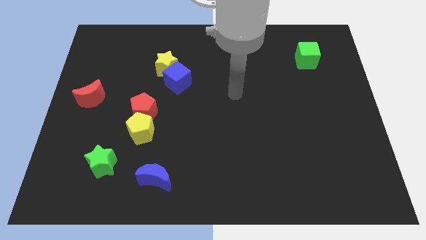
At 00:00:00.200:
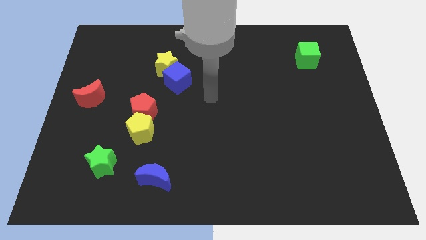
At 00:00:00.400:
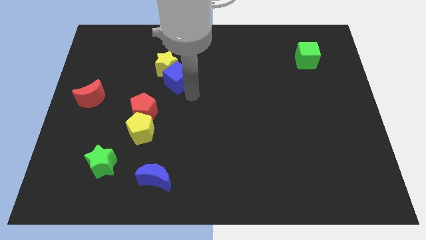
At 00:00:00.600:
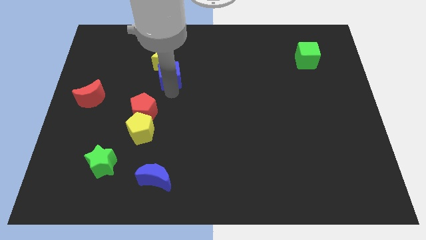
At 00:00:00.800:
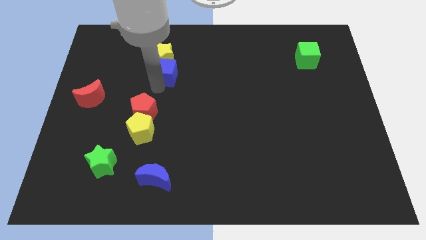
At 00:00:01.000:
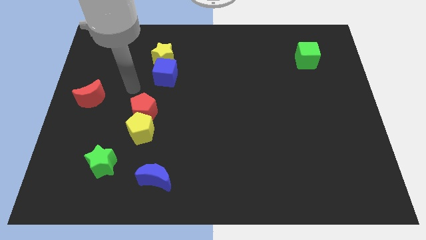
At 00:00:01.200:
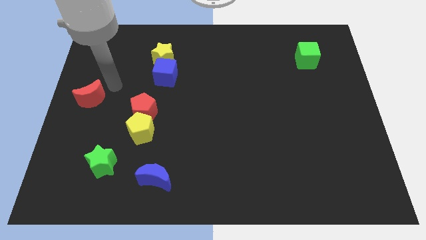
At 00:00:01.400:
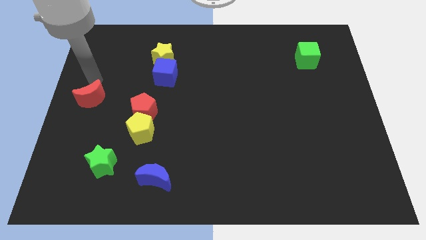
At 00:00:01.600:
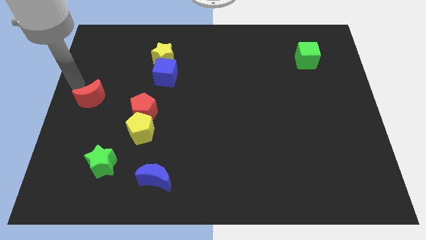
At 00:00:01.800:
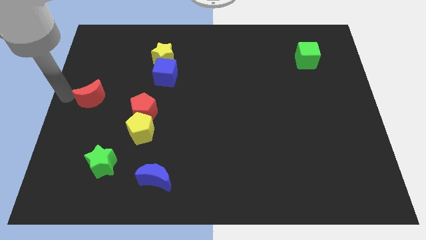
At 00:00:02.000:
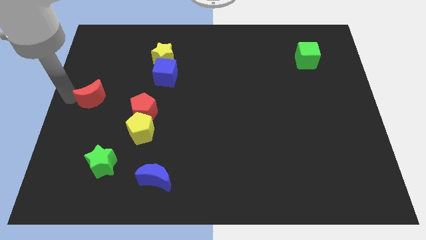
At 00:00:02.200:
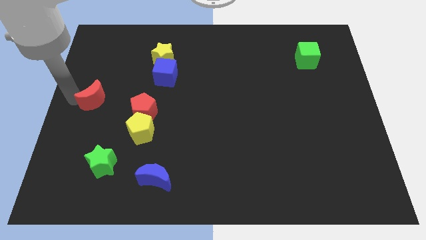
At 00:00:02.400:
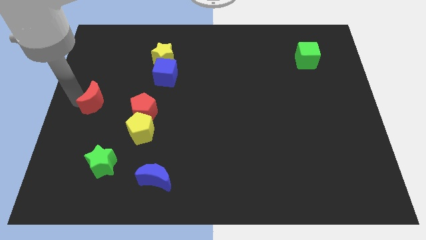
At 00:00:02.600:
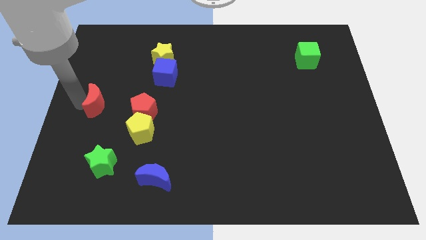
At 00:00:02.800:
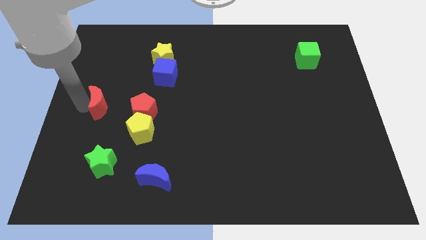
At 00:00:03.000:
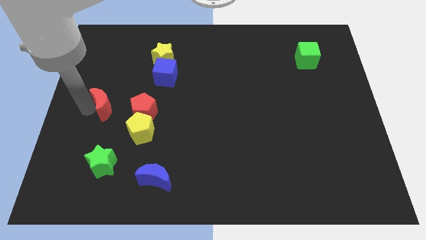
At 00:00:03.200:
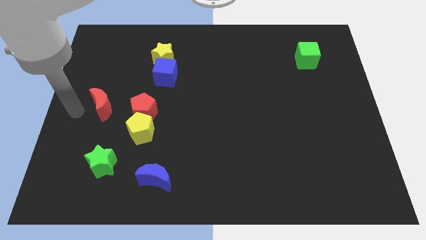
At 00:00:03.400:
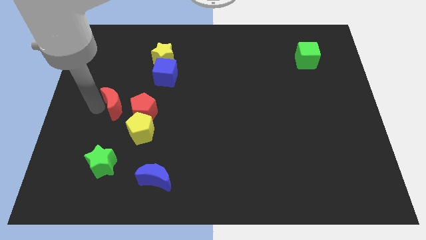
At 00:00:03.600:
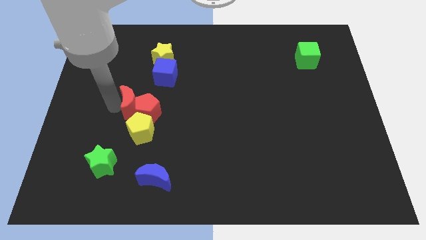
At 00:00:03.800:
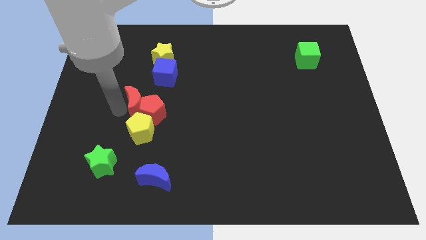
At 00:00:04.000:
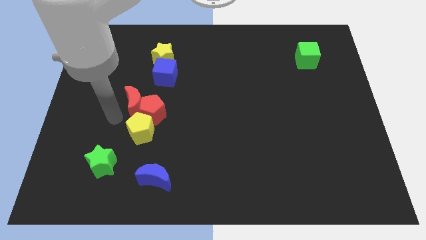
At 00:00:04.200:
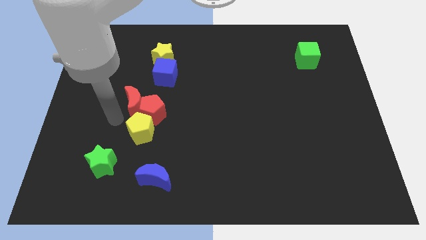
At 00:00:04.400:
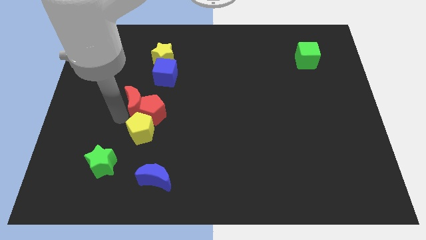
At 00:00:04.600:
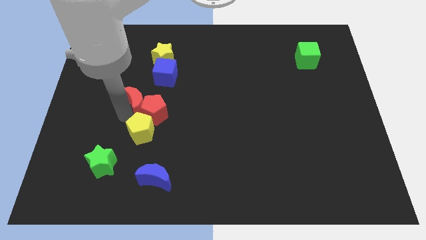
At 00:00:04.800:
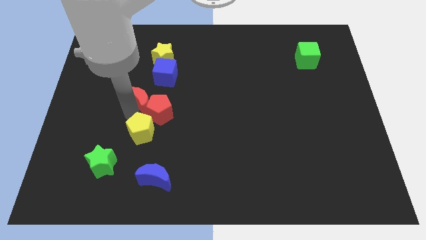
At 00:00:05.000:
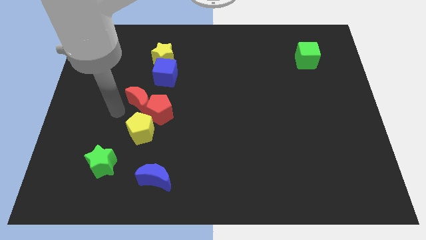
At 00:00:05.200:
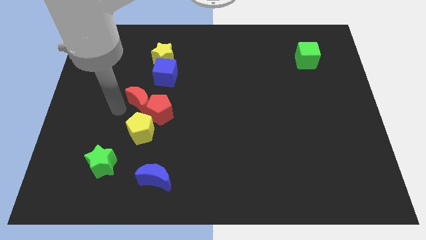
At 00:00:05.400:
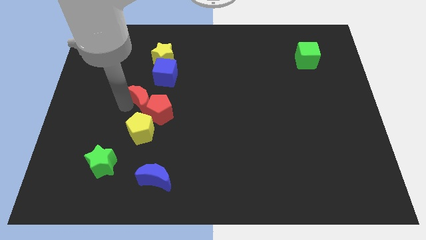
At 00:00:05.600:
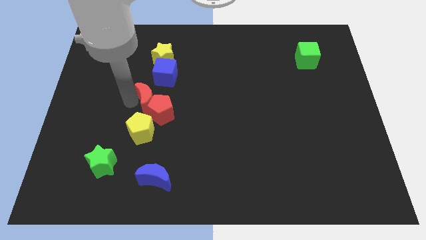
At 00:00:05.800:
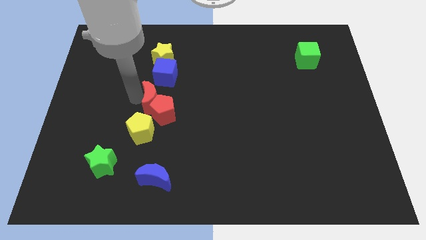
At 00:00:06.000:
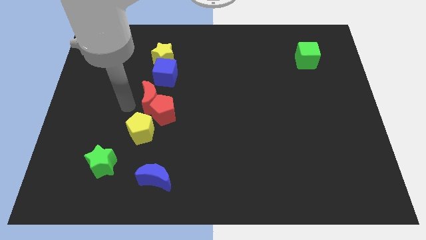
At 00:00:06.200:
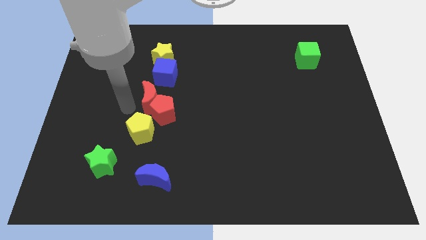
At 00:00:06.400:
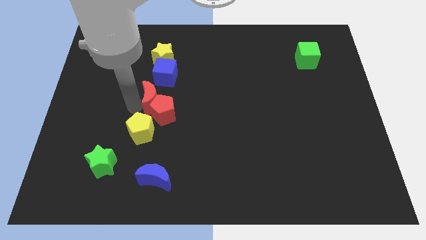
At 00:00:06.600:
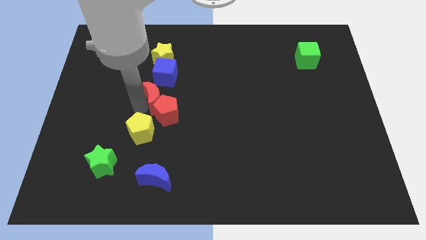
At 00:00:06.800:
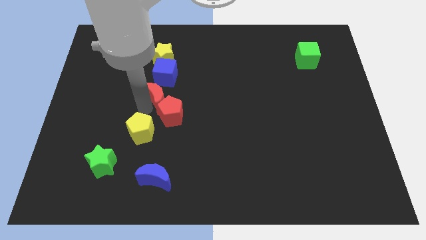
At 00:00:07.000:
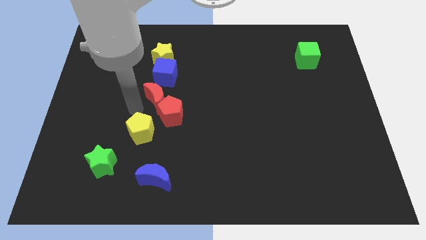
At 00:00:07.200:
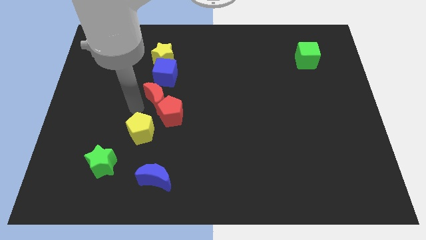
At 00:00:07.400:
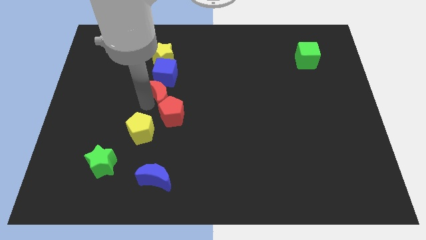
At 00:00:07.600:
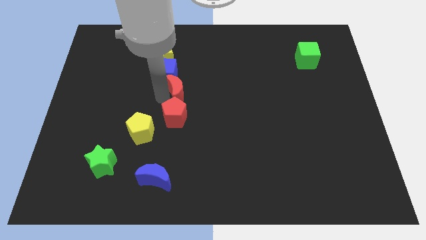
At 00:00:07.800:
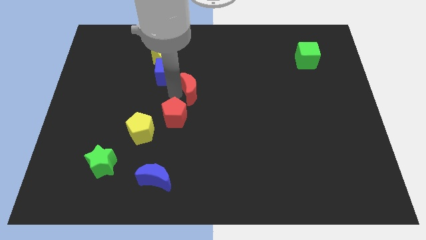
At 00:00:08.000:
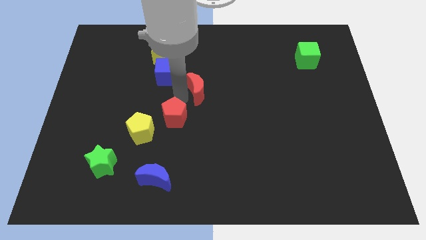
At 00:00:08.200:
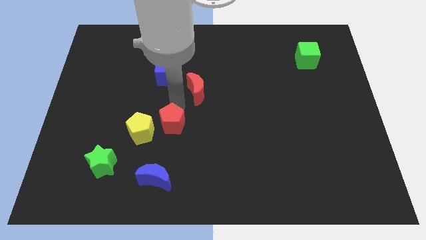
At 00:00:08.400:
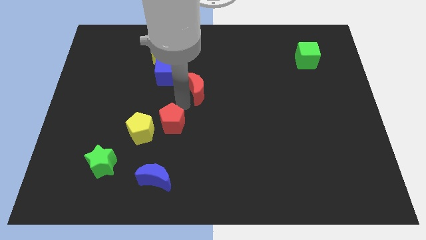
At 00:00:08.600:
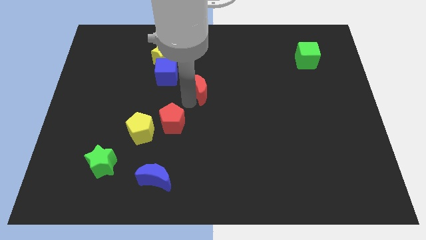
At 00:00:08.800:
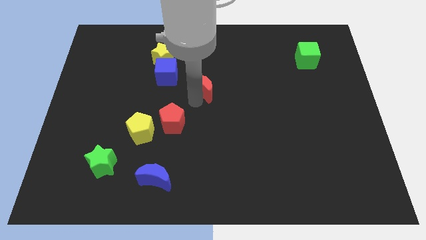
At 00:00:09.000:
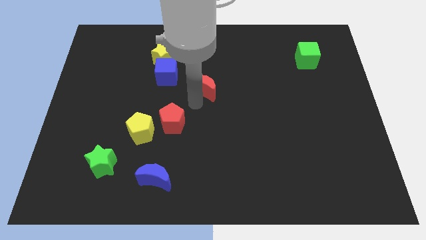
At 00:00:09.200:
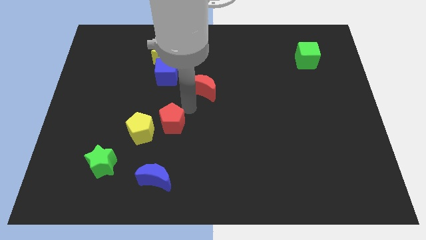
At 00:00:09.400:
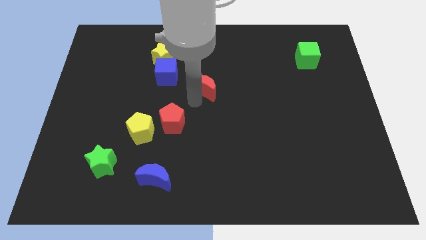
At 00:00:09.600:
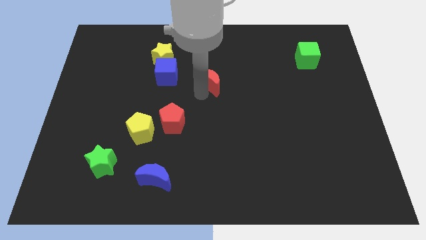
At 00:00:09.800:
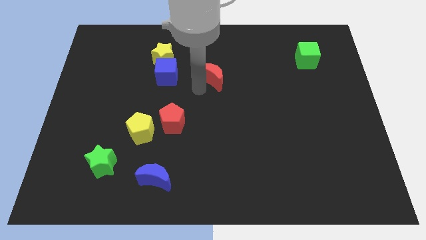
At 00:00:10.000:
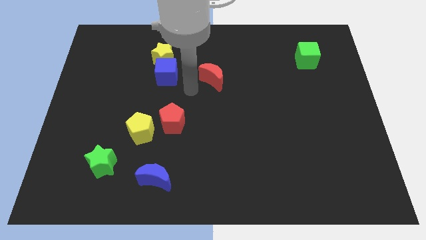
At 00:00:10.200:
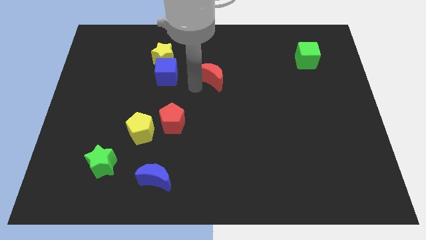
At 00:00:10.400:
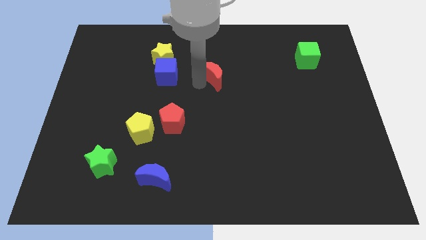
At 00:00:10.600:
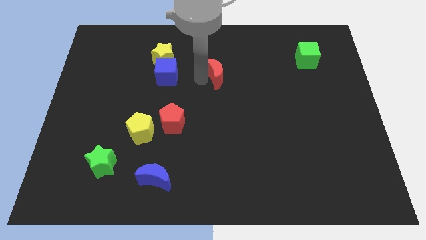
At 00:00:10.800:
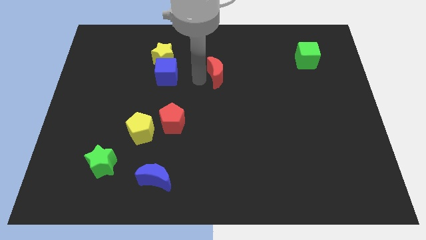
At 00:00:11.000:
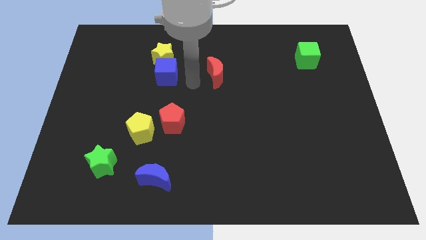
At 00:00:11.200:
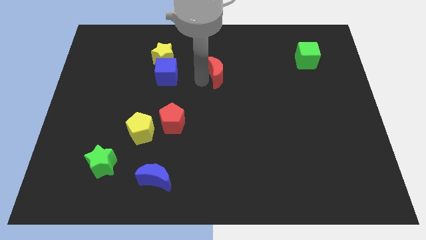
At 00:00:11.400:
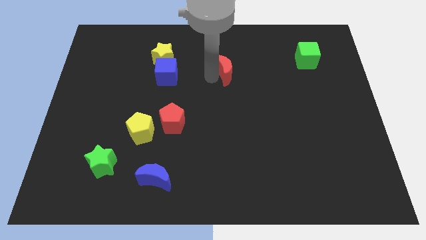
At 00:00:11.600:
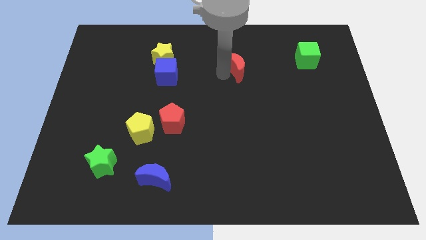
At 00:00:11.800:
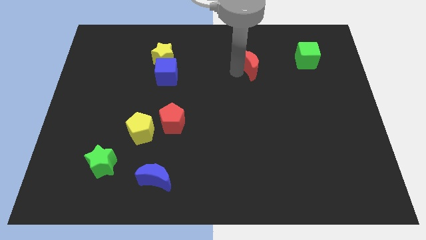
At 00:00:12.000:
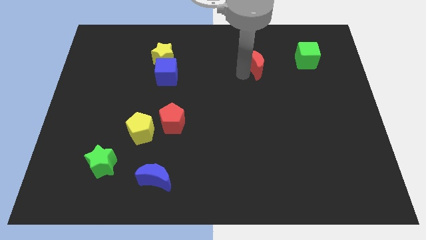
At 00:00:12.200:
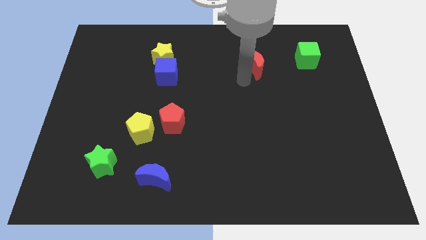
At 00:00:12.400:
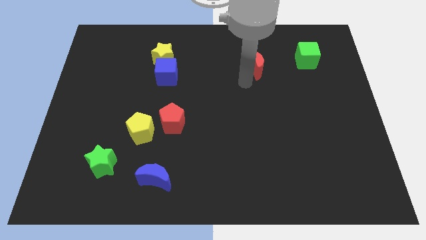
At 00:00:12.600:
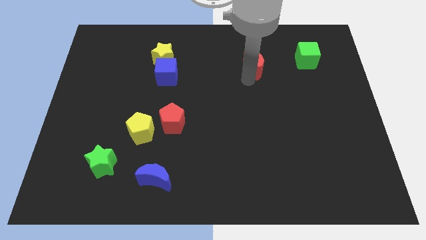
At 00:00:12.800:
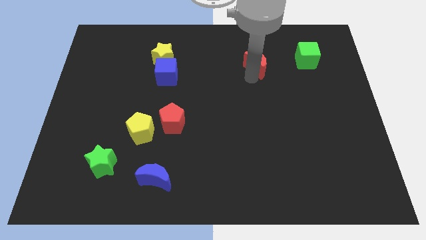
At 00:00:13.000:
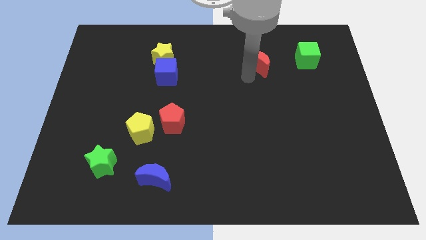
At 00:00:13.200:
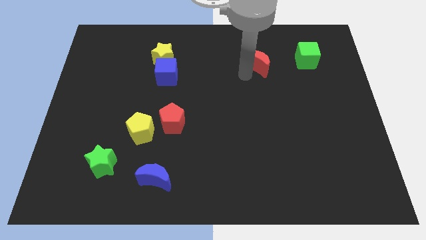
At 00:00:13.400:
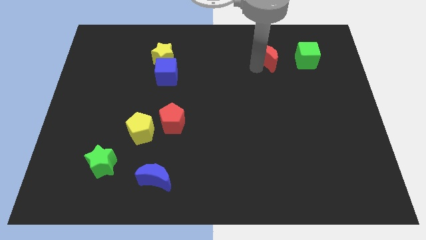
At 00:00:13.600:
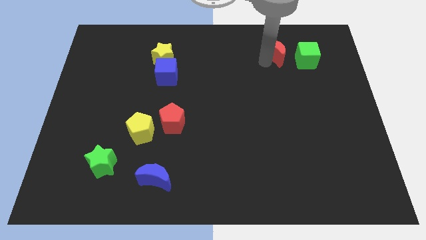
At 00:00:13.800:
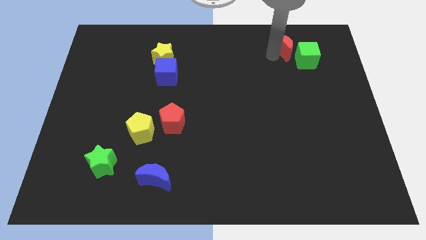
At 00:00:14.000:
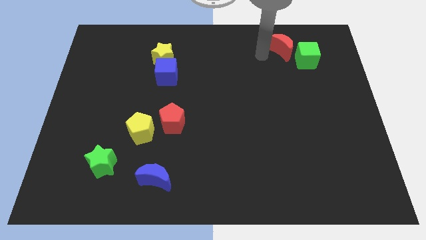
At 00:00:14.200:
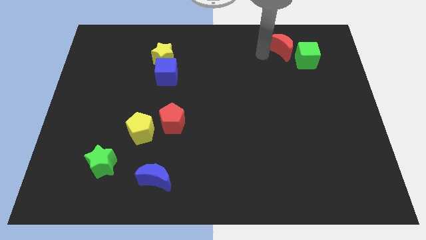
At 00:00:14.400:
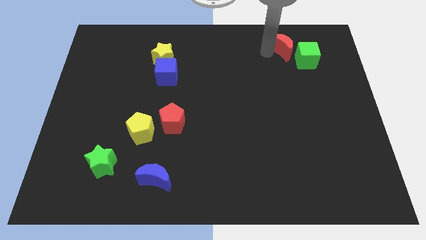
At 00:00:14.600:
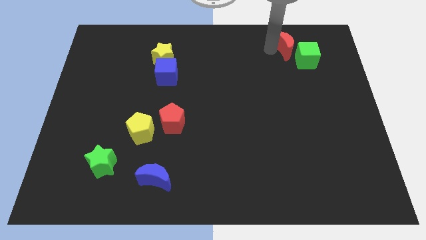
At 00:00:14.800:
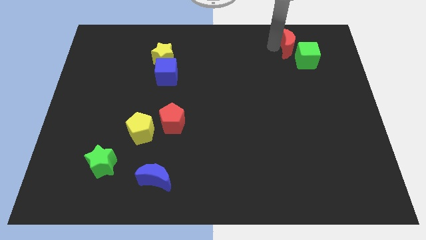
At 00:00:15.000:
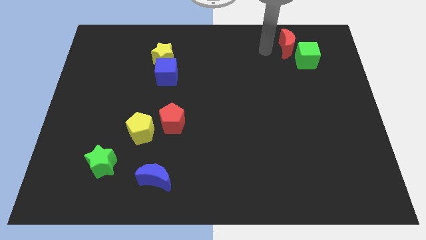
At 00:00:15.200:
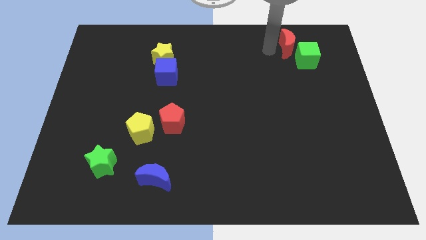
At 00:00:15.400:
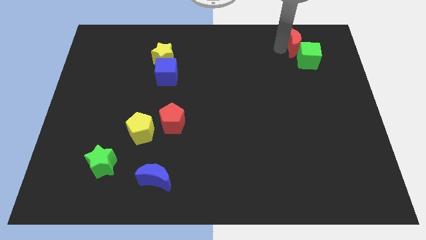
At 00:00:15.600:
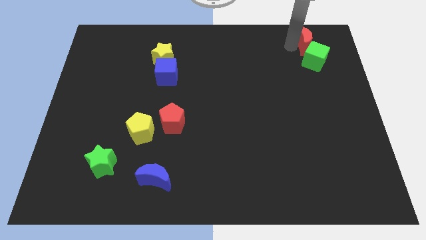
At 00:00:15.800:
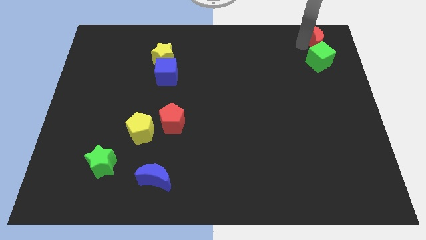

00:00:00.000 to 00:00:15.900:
move the red moon to the upper right corner
